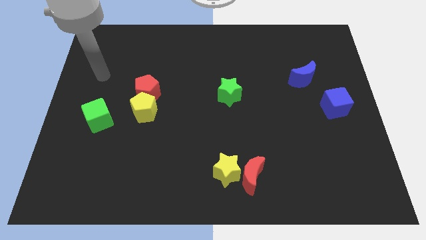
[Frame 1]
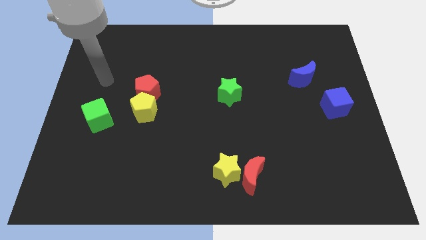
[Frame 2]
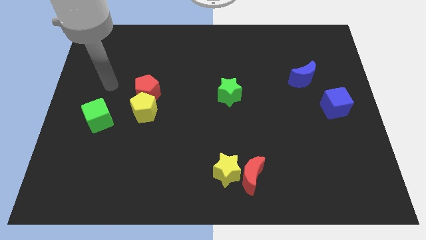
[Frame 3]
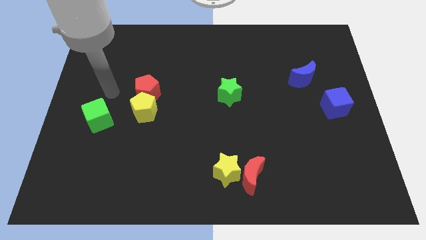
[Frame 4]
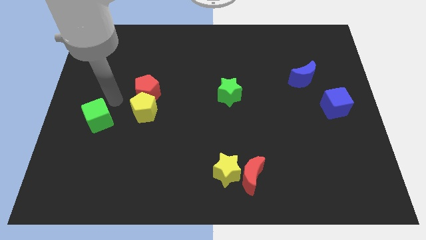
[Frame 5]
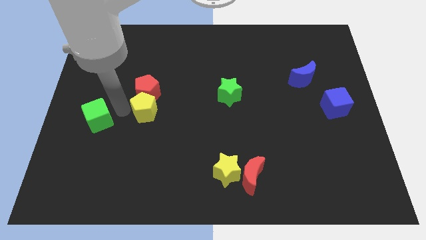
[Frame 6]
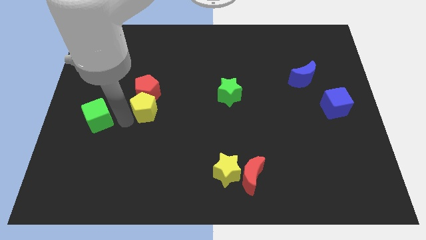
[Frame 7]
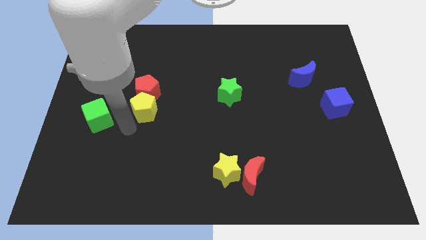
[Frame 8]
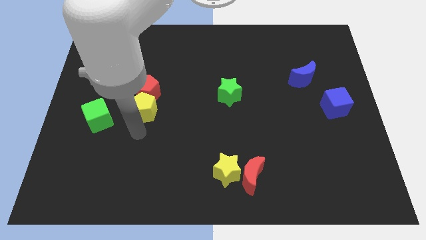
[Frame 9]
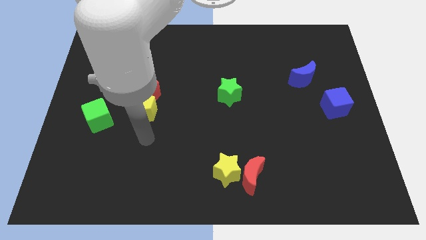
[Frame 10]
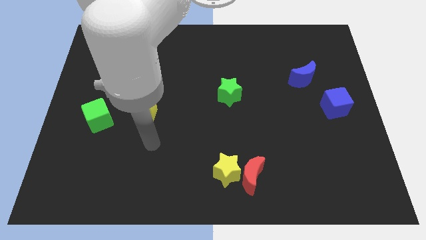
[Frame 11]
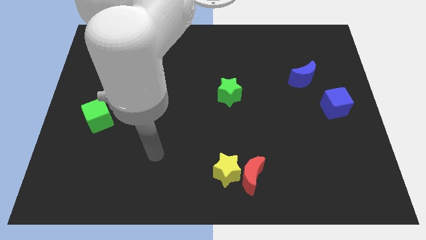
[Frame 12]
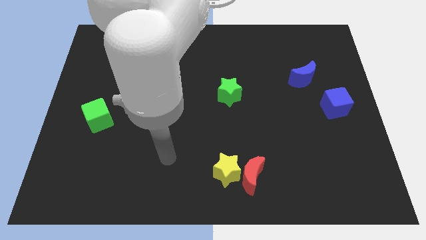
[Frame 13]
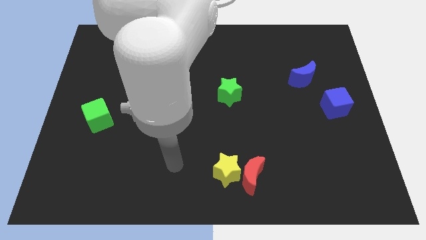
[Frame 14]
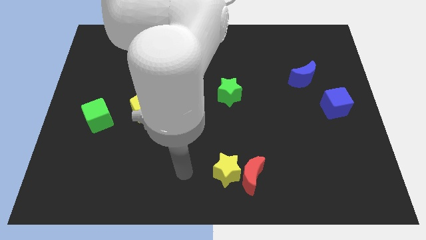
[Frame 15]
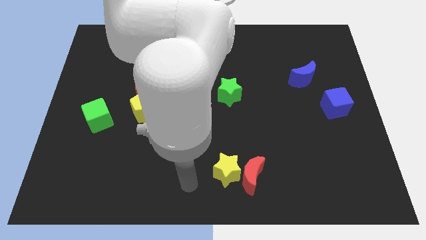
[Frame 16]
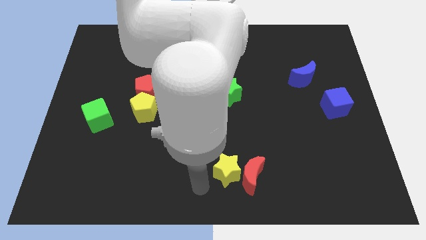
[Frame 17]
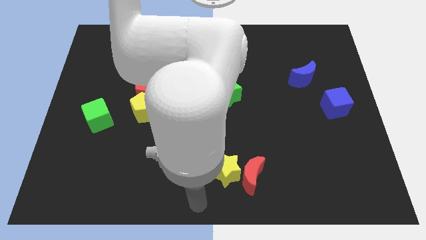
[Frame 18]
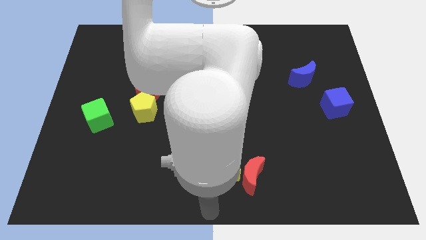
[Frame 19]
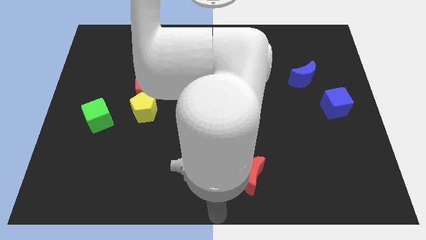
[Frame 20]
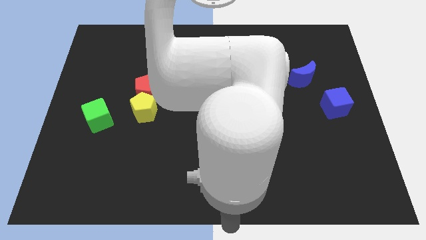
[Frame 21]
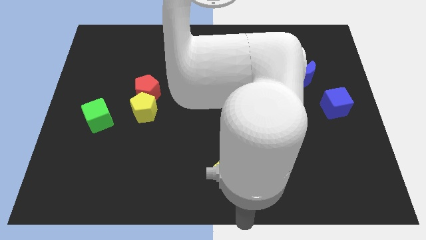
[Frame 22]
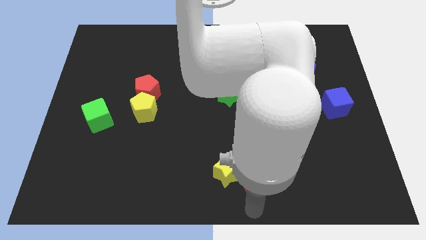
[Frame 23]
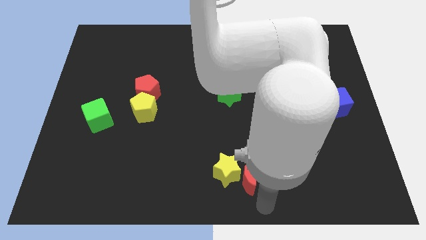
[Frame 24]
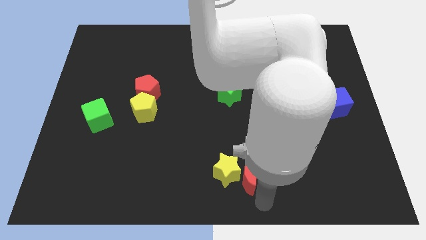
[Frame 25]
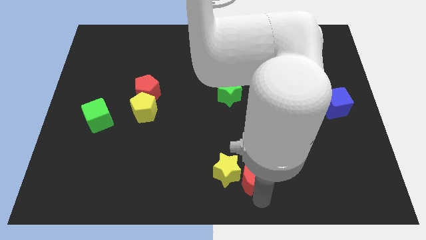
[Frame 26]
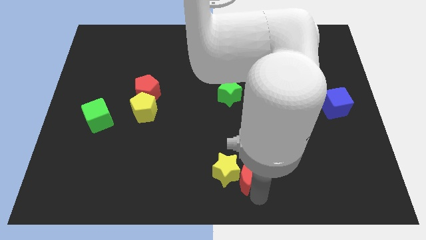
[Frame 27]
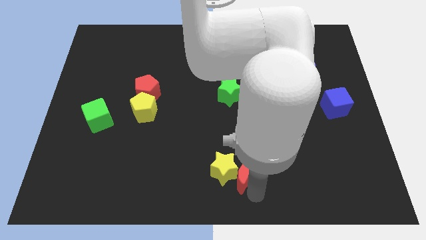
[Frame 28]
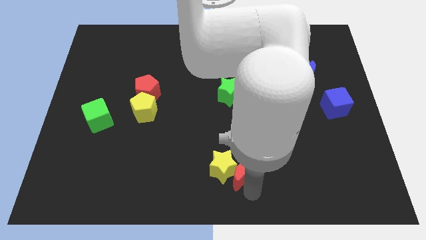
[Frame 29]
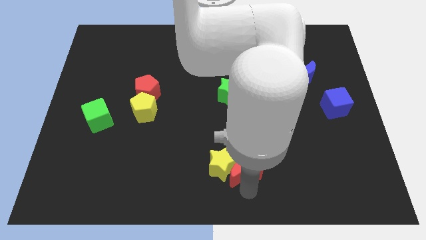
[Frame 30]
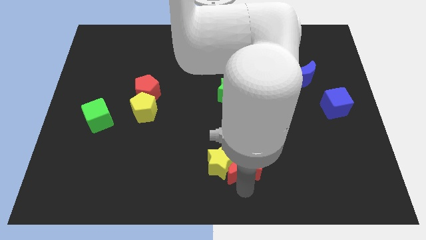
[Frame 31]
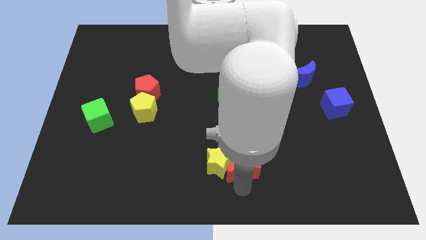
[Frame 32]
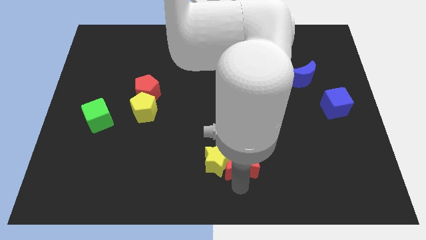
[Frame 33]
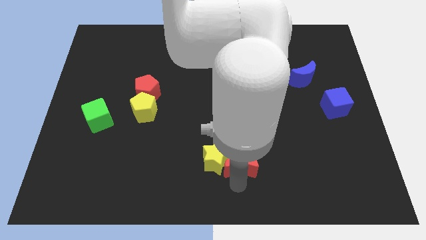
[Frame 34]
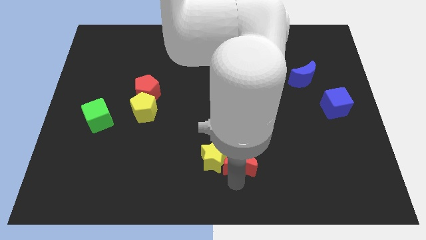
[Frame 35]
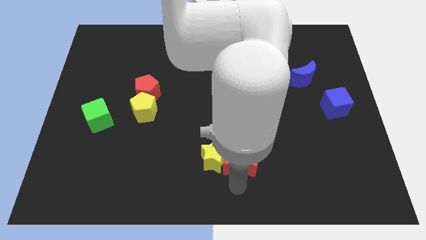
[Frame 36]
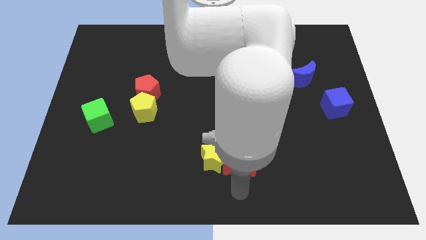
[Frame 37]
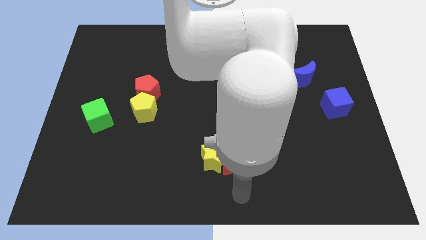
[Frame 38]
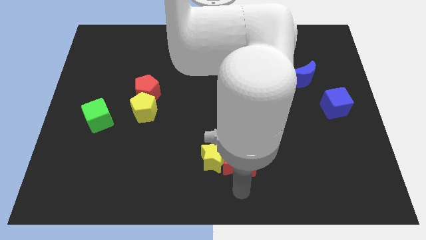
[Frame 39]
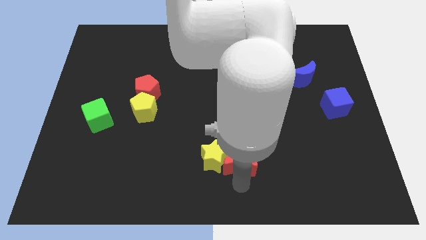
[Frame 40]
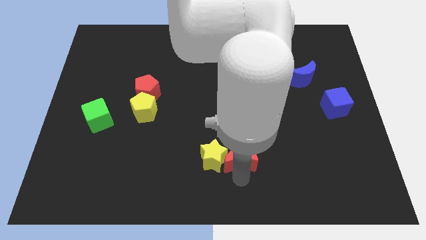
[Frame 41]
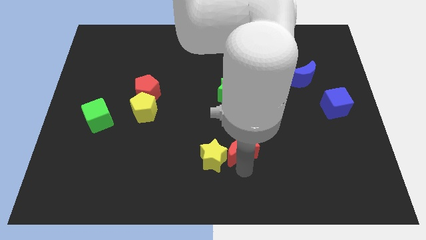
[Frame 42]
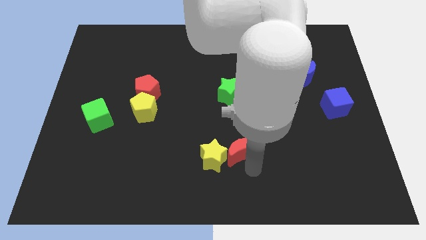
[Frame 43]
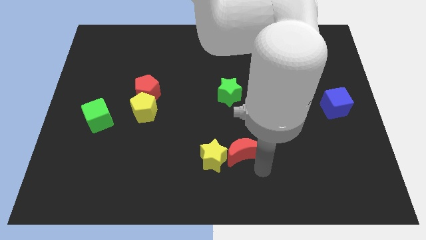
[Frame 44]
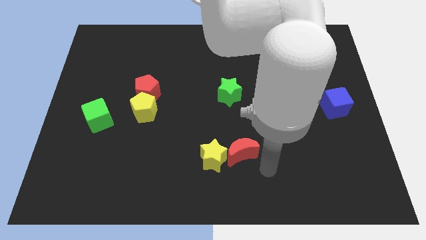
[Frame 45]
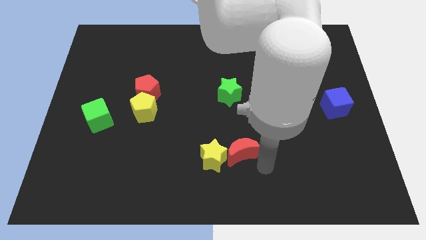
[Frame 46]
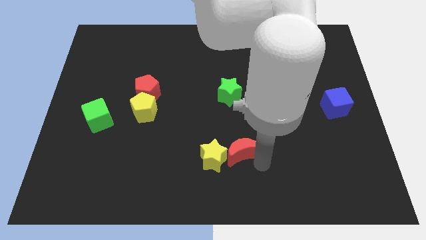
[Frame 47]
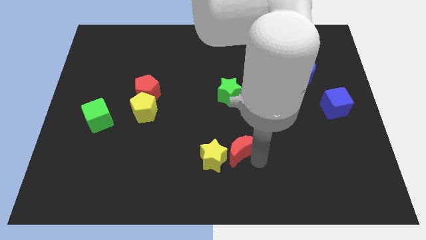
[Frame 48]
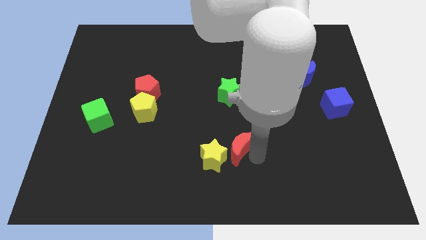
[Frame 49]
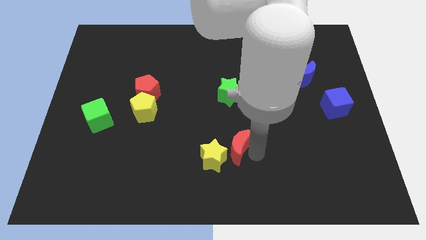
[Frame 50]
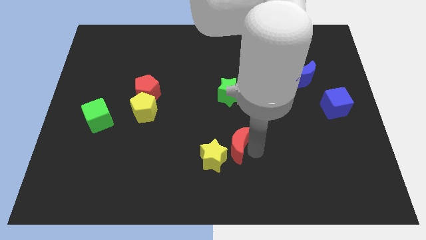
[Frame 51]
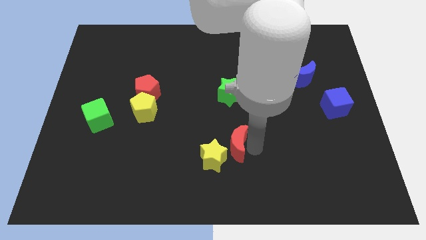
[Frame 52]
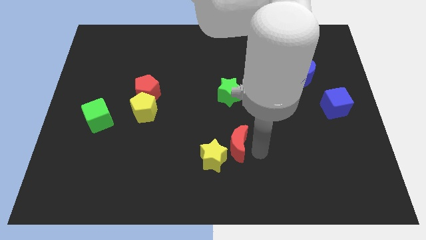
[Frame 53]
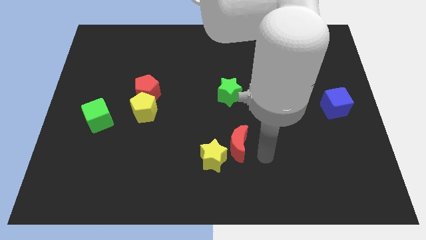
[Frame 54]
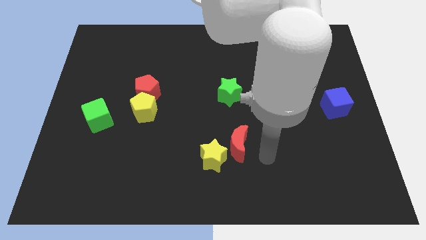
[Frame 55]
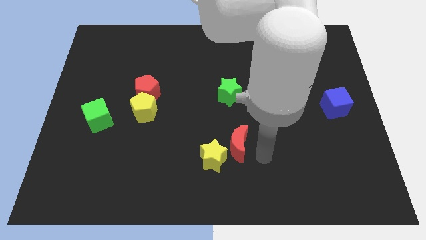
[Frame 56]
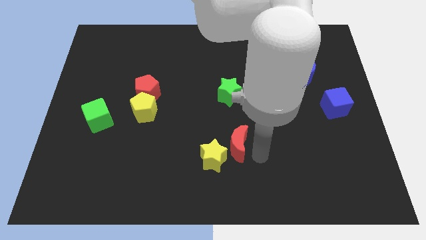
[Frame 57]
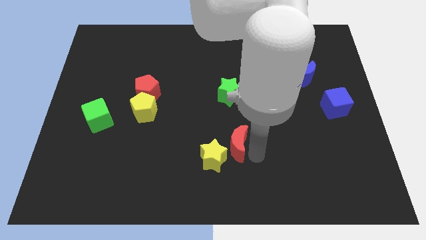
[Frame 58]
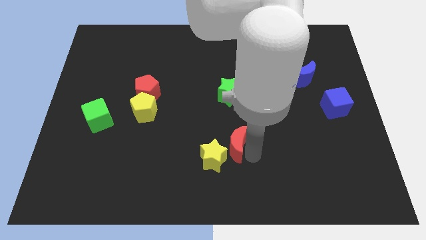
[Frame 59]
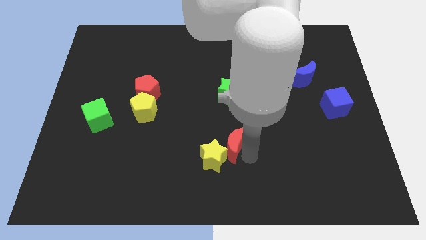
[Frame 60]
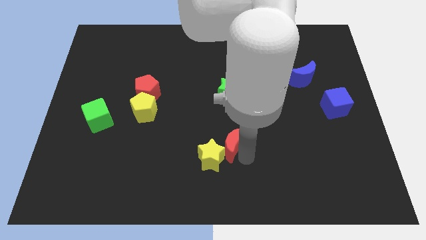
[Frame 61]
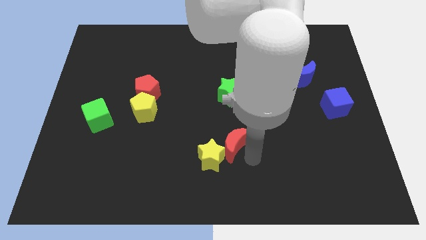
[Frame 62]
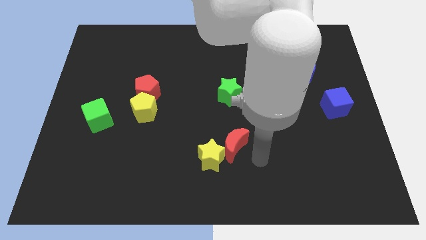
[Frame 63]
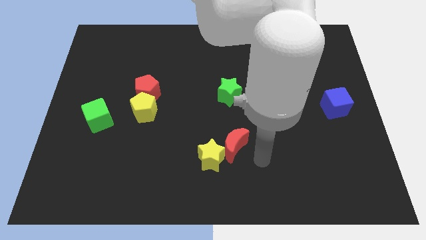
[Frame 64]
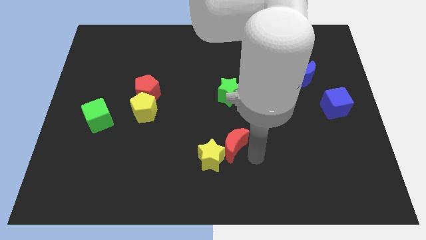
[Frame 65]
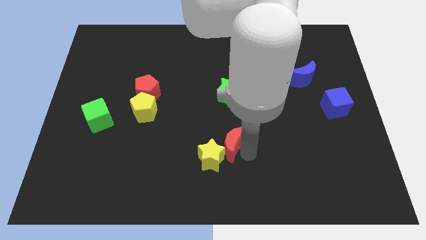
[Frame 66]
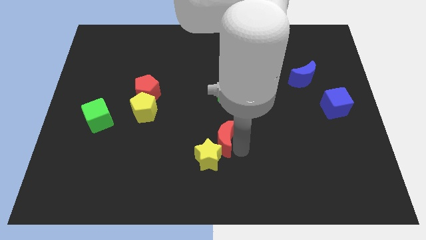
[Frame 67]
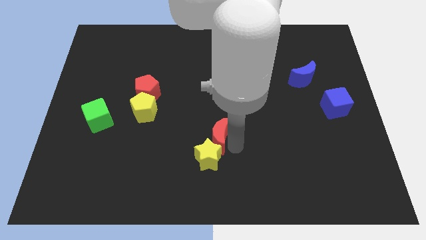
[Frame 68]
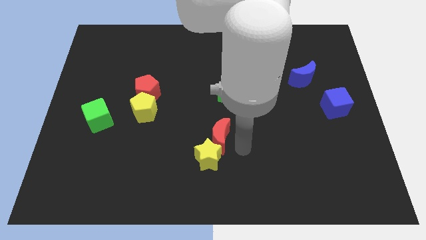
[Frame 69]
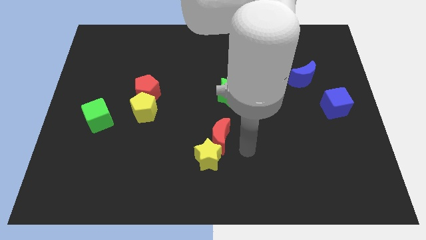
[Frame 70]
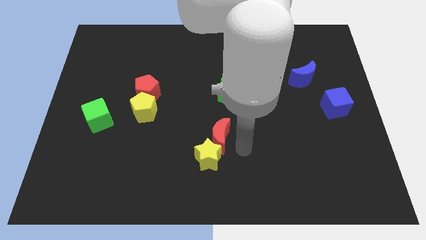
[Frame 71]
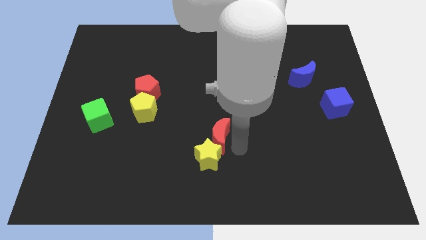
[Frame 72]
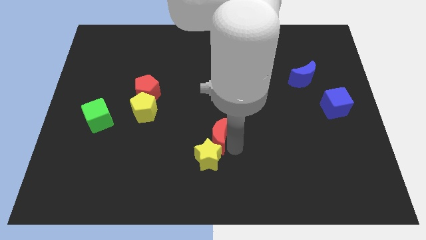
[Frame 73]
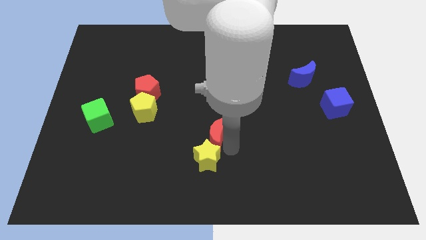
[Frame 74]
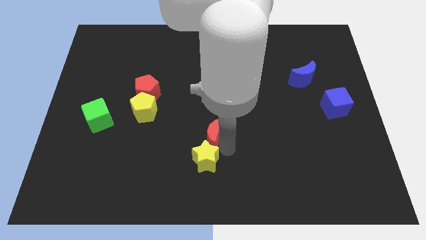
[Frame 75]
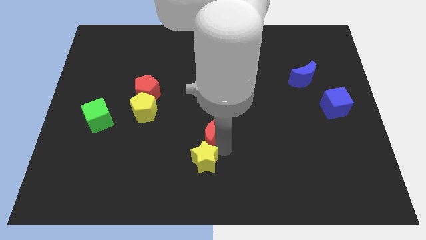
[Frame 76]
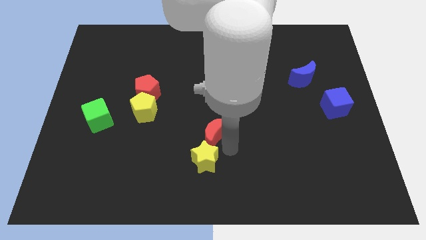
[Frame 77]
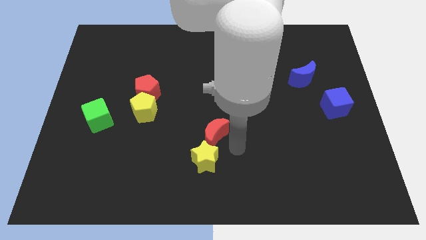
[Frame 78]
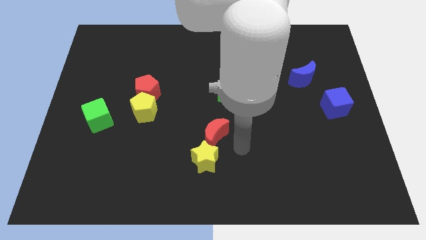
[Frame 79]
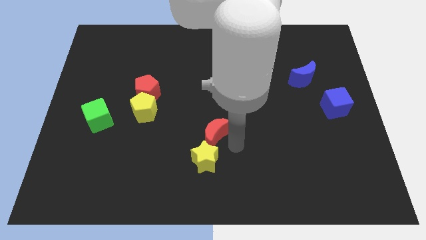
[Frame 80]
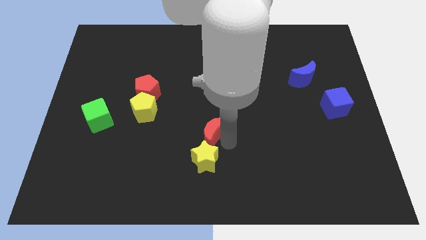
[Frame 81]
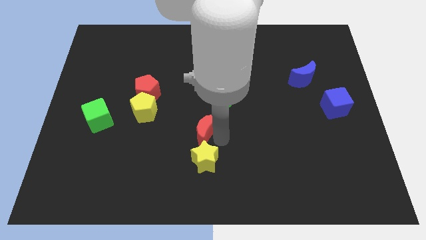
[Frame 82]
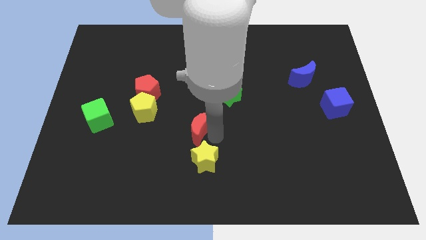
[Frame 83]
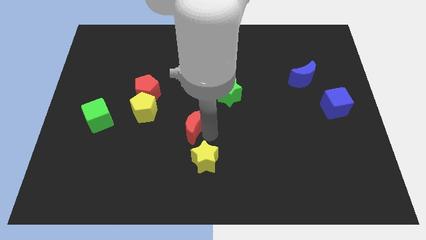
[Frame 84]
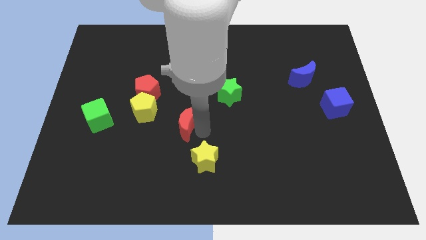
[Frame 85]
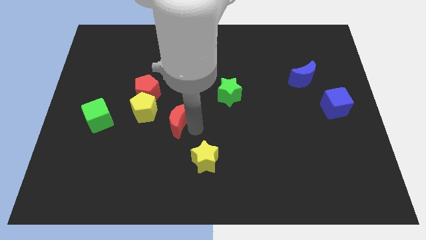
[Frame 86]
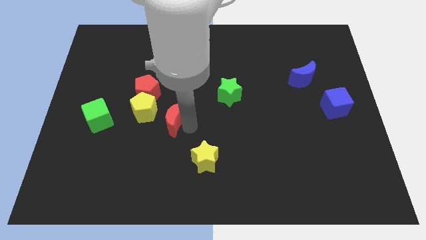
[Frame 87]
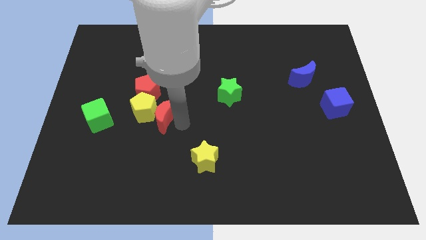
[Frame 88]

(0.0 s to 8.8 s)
push the red moon to the yellow pentagon
